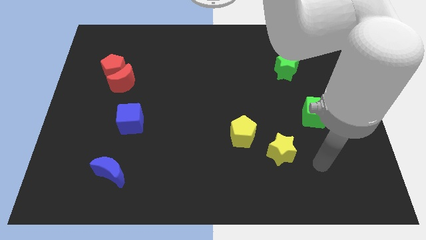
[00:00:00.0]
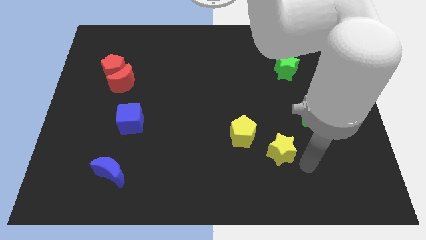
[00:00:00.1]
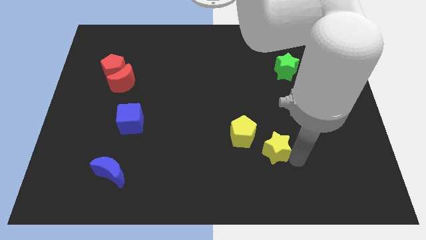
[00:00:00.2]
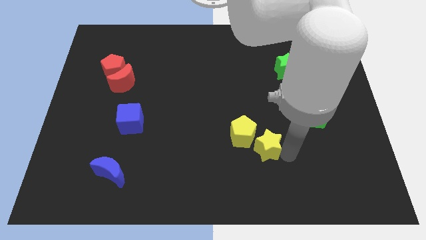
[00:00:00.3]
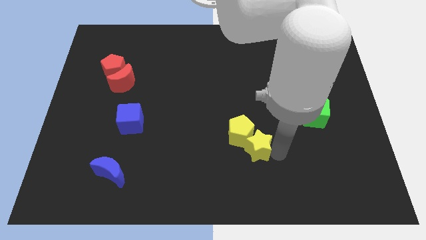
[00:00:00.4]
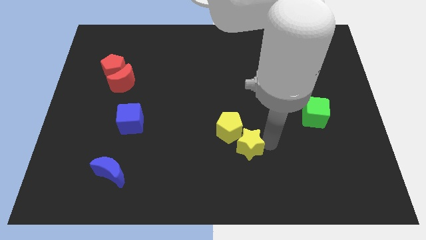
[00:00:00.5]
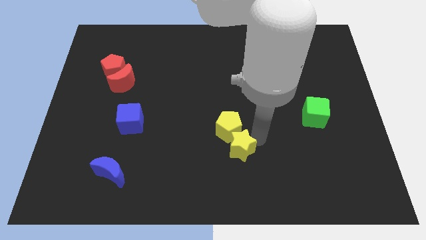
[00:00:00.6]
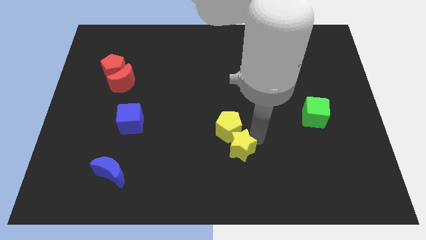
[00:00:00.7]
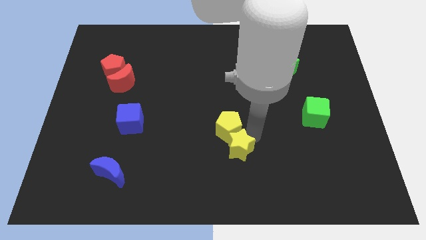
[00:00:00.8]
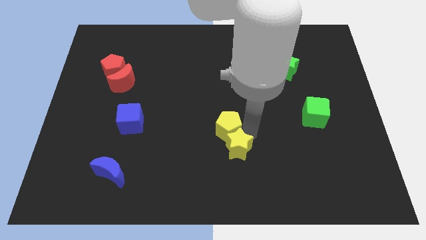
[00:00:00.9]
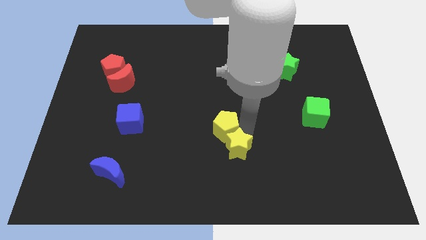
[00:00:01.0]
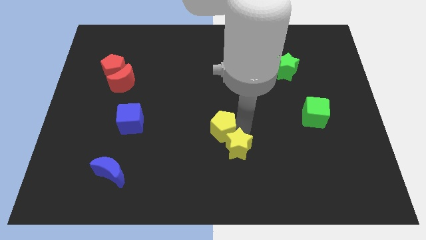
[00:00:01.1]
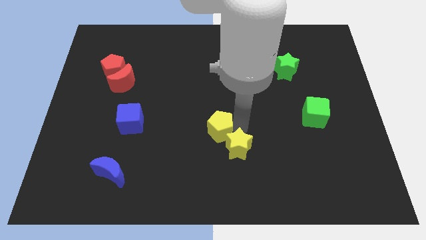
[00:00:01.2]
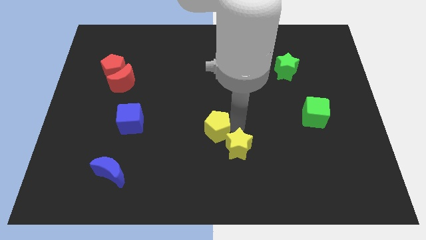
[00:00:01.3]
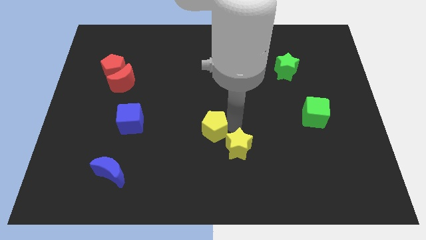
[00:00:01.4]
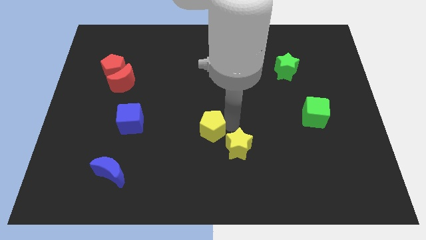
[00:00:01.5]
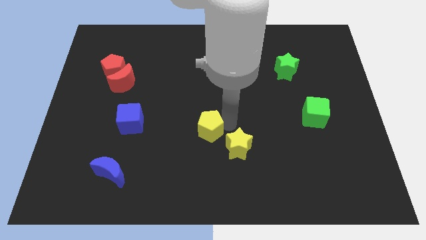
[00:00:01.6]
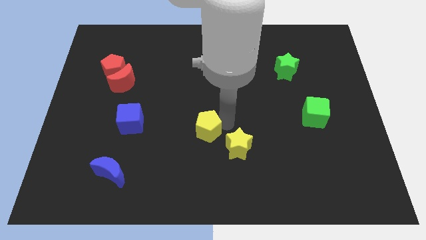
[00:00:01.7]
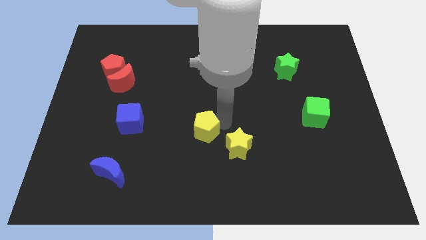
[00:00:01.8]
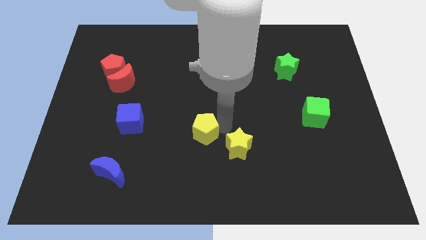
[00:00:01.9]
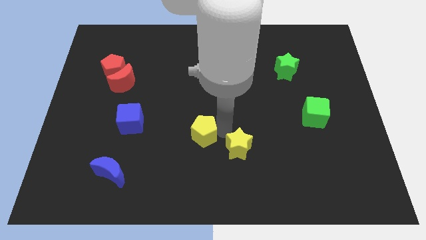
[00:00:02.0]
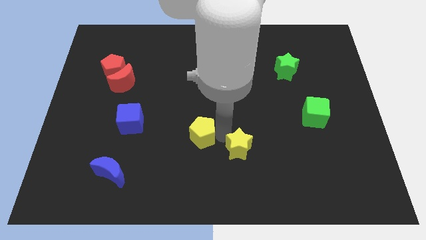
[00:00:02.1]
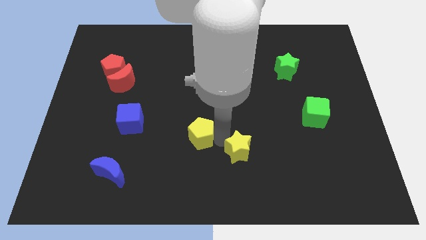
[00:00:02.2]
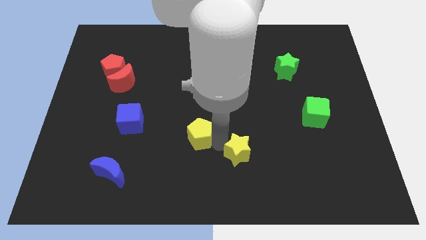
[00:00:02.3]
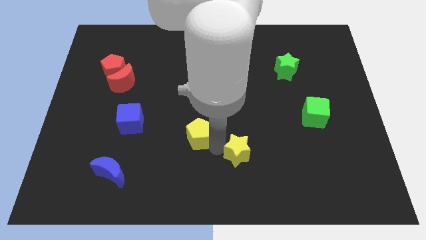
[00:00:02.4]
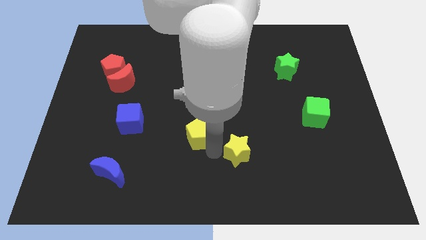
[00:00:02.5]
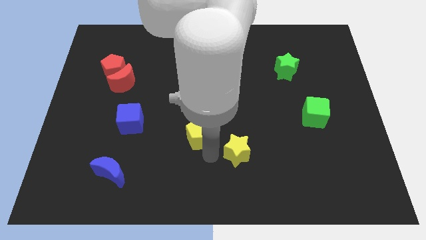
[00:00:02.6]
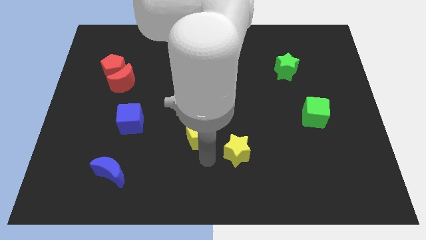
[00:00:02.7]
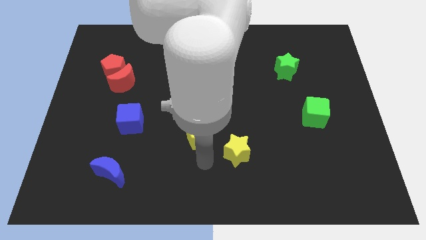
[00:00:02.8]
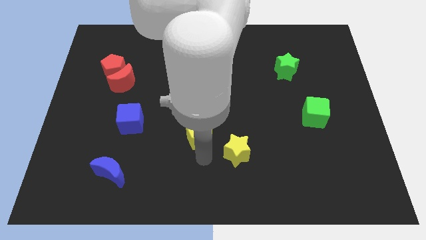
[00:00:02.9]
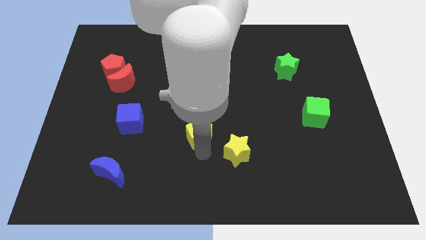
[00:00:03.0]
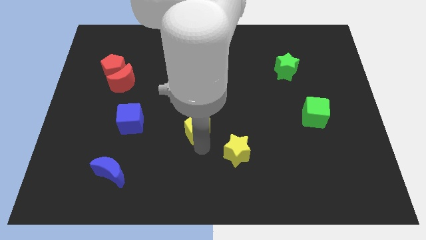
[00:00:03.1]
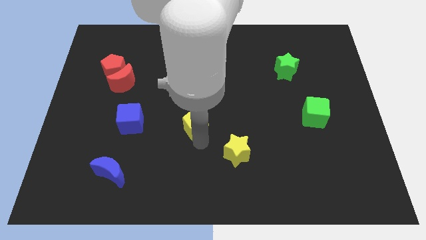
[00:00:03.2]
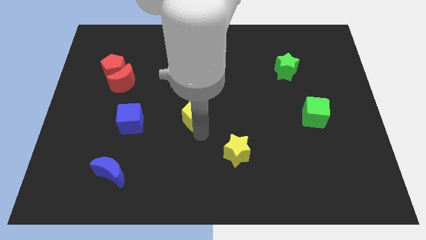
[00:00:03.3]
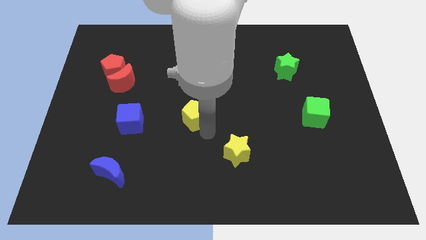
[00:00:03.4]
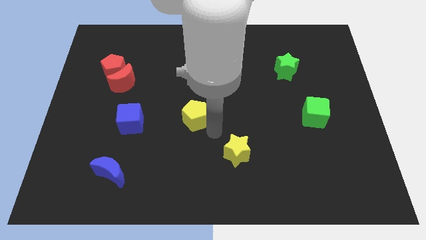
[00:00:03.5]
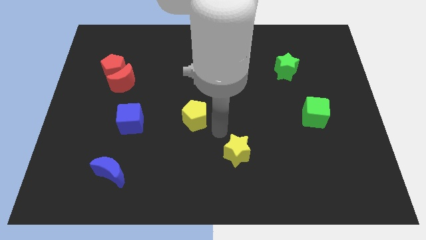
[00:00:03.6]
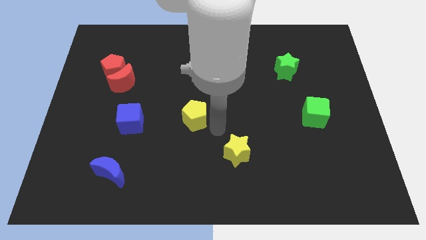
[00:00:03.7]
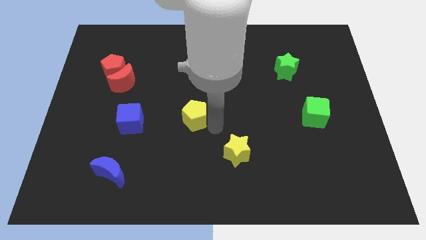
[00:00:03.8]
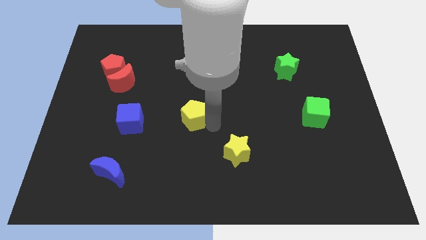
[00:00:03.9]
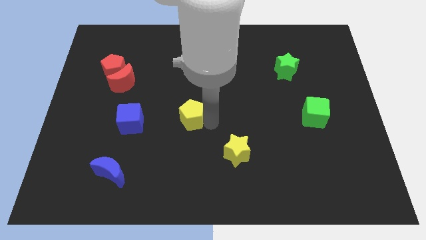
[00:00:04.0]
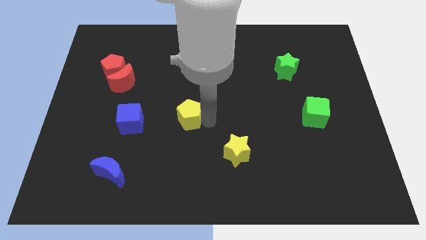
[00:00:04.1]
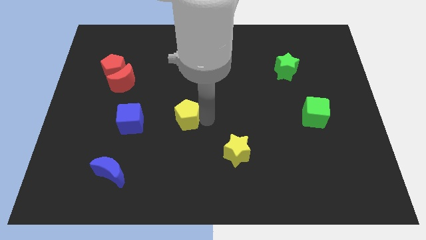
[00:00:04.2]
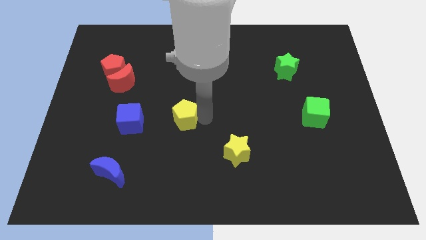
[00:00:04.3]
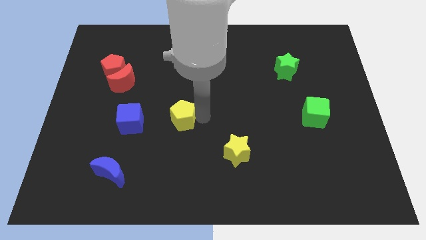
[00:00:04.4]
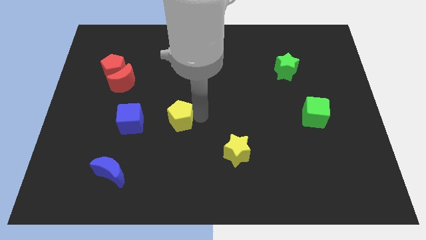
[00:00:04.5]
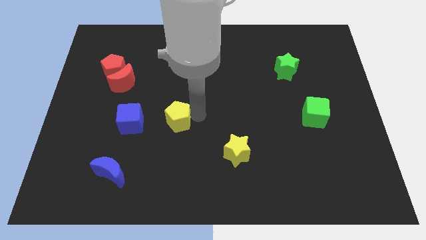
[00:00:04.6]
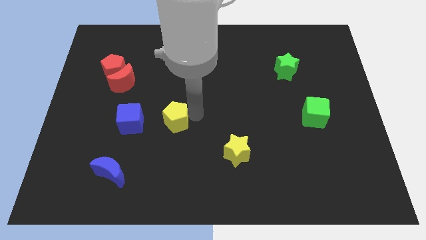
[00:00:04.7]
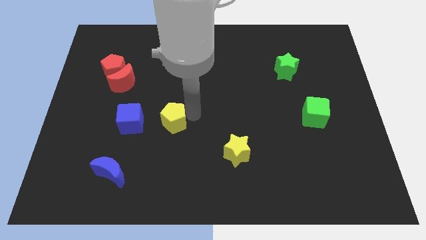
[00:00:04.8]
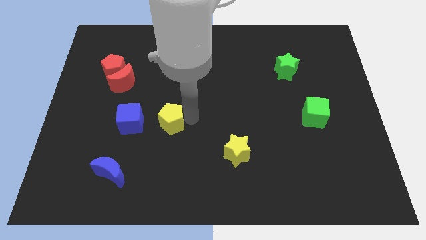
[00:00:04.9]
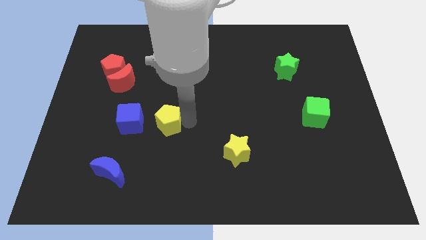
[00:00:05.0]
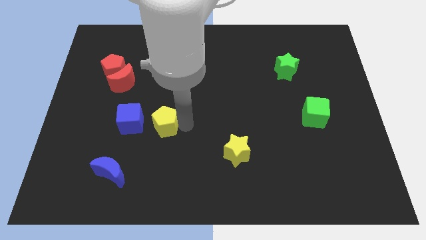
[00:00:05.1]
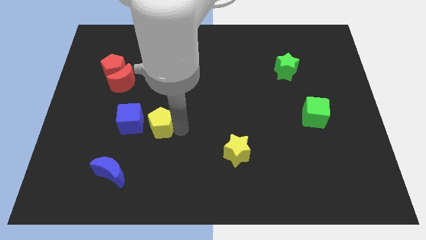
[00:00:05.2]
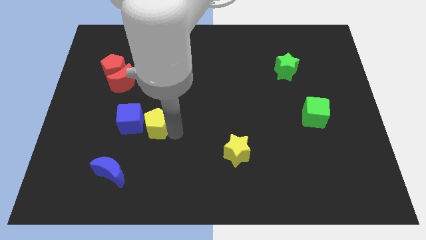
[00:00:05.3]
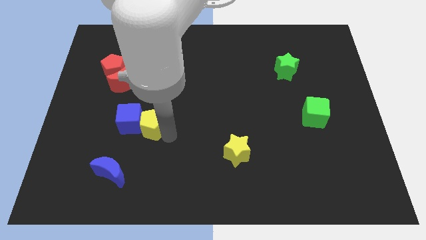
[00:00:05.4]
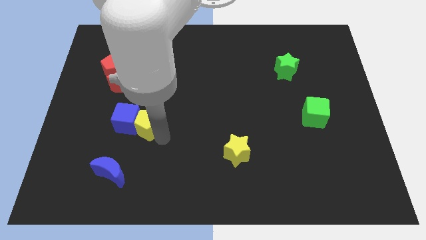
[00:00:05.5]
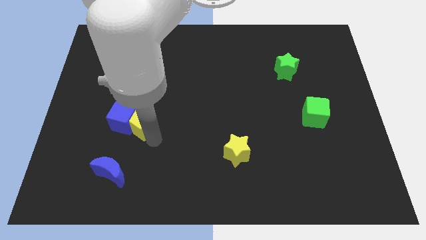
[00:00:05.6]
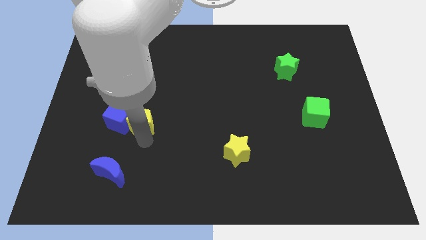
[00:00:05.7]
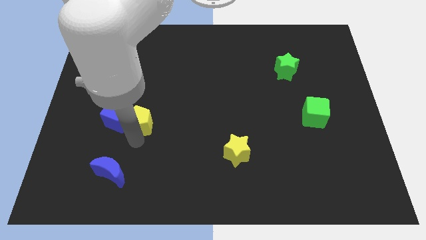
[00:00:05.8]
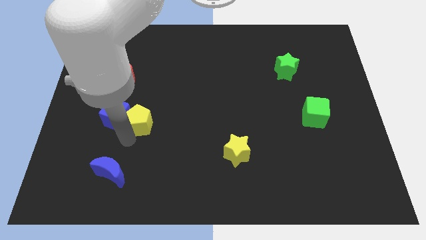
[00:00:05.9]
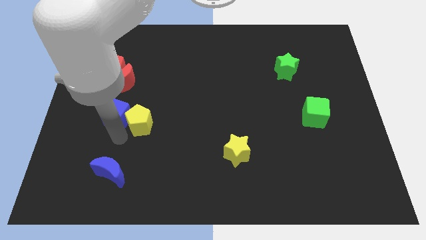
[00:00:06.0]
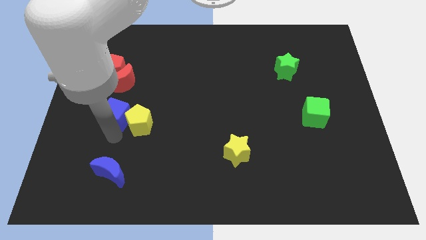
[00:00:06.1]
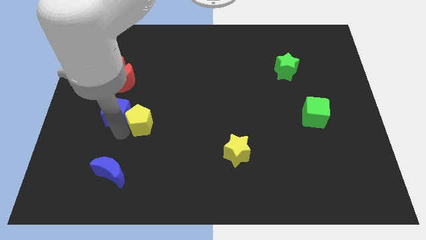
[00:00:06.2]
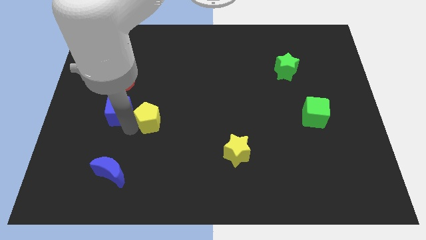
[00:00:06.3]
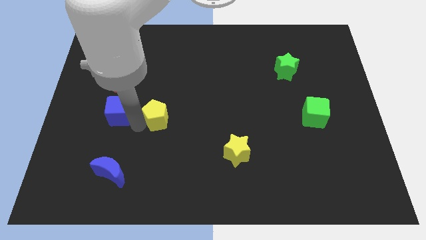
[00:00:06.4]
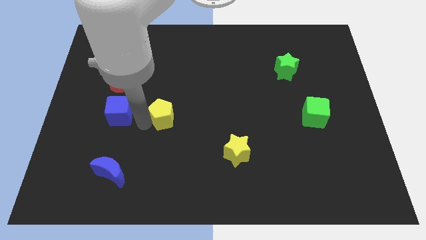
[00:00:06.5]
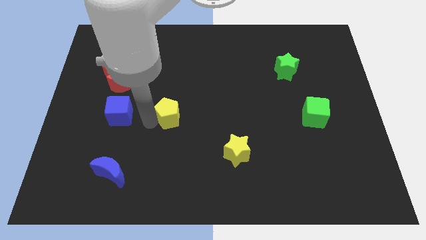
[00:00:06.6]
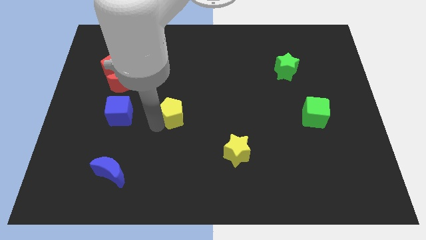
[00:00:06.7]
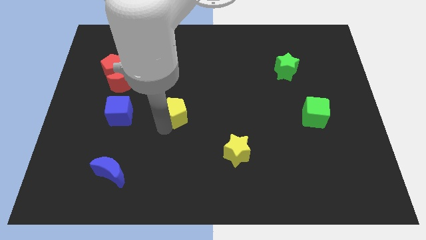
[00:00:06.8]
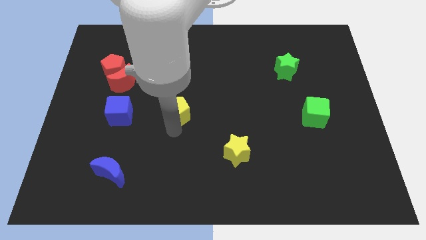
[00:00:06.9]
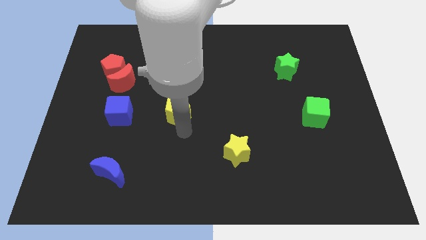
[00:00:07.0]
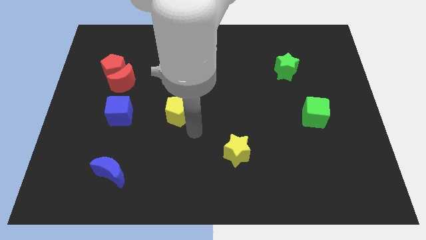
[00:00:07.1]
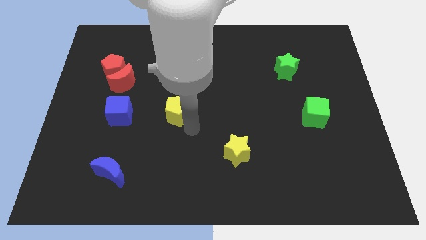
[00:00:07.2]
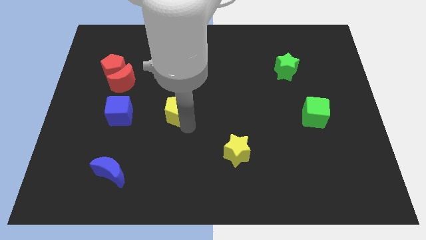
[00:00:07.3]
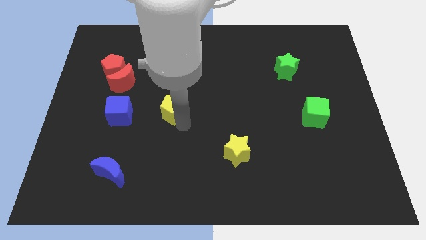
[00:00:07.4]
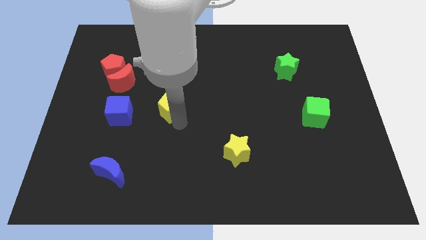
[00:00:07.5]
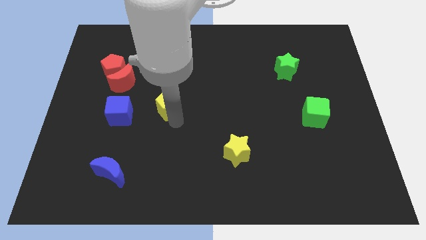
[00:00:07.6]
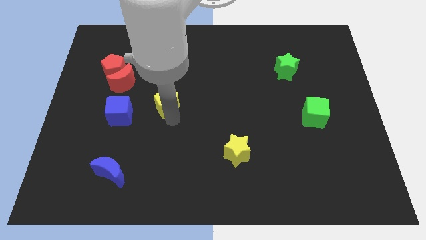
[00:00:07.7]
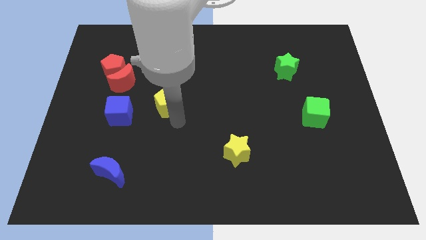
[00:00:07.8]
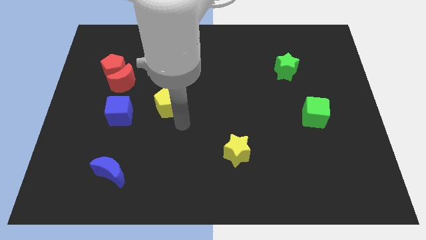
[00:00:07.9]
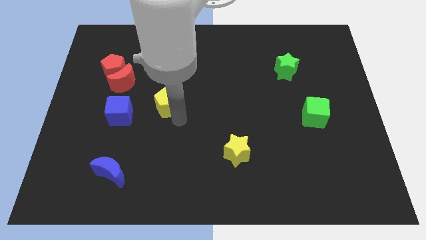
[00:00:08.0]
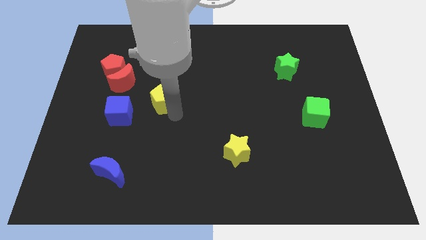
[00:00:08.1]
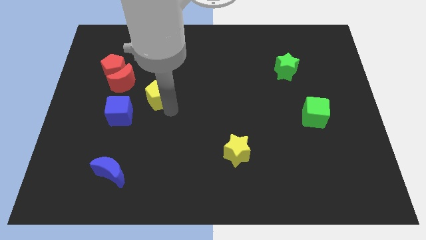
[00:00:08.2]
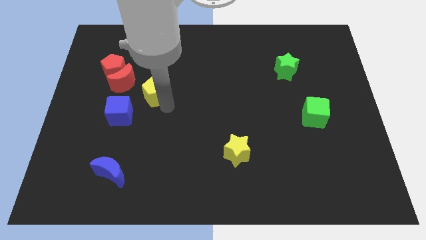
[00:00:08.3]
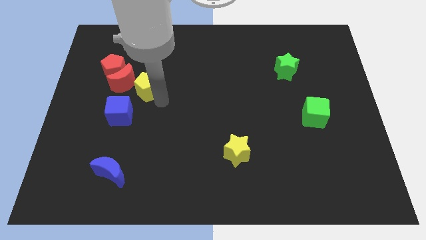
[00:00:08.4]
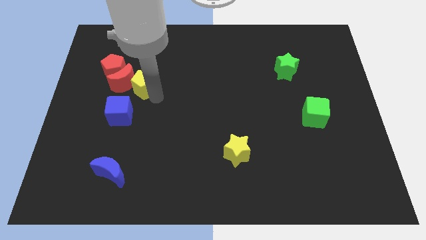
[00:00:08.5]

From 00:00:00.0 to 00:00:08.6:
push the yellow pentagon above the blue cube
